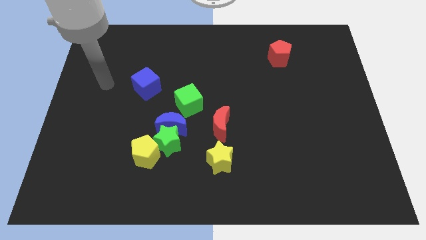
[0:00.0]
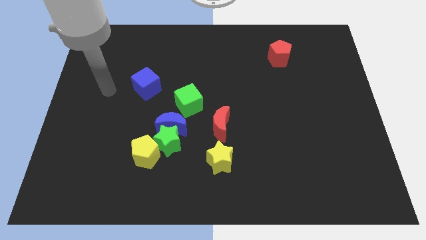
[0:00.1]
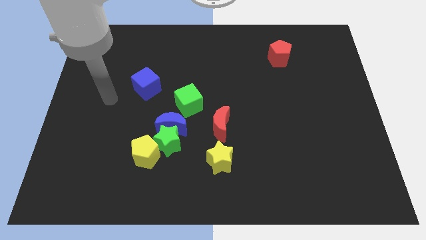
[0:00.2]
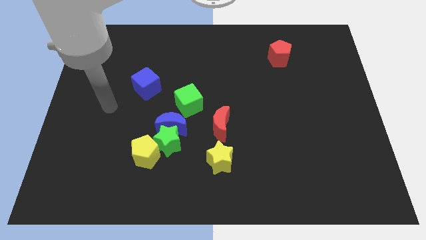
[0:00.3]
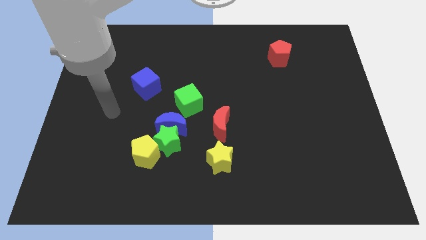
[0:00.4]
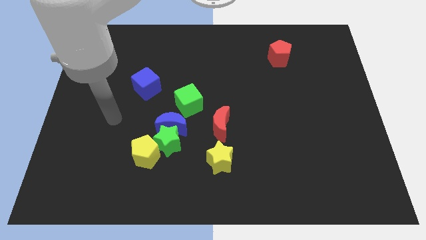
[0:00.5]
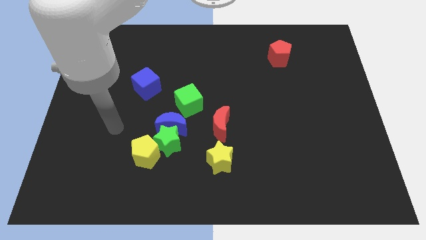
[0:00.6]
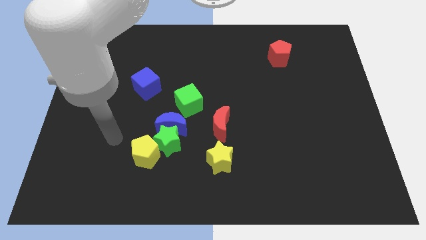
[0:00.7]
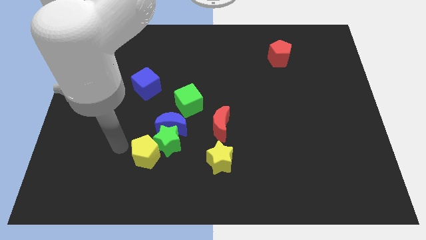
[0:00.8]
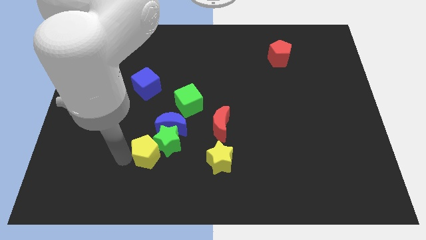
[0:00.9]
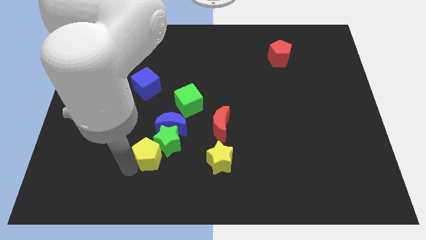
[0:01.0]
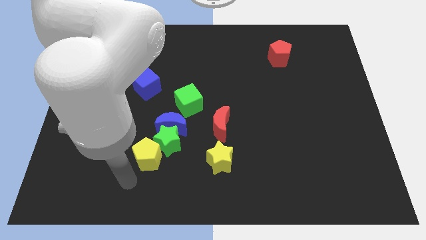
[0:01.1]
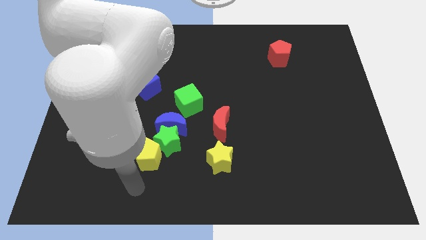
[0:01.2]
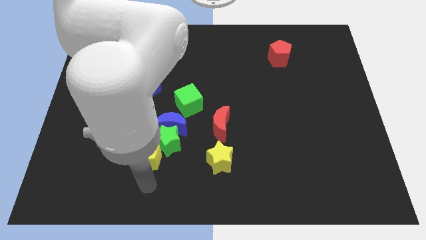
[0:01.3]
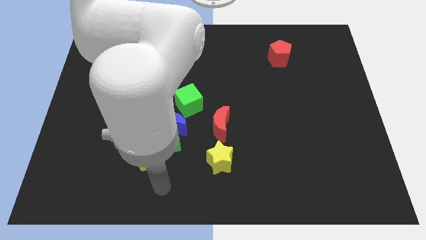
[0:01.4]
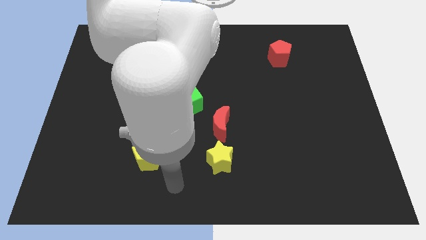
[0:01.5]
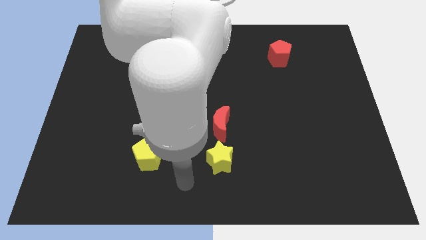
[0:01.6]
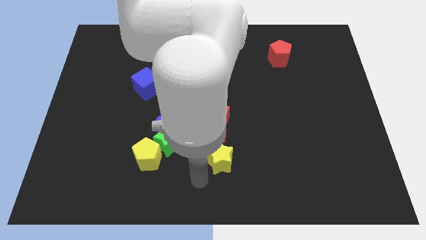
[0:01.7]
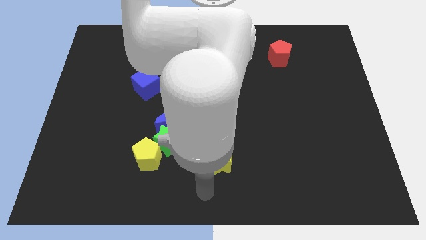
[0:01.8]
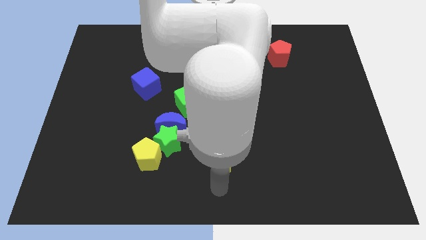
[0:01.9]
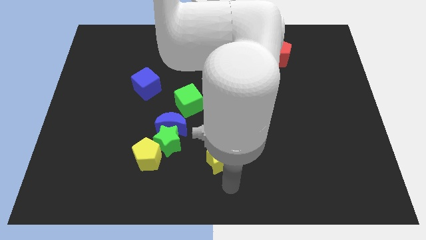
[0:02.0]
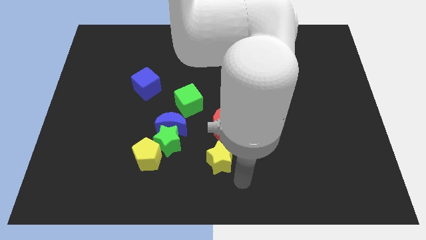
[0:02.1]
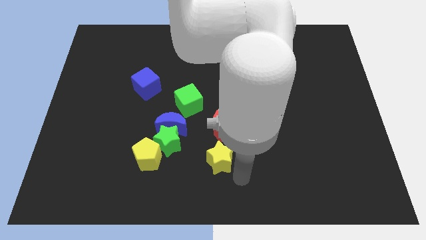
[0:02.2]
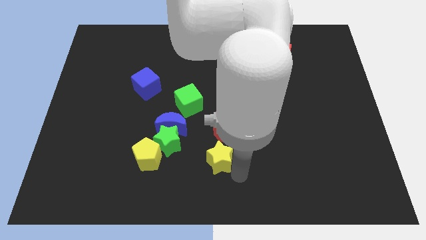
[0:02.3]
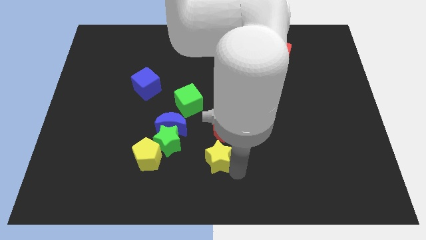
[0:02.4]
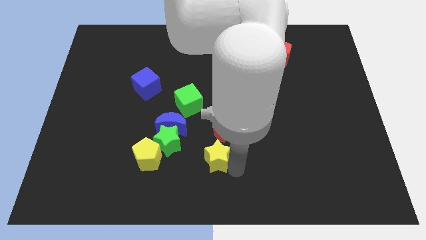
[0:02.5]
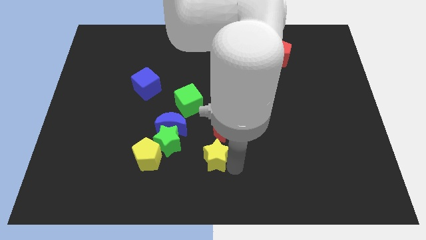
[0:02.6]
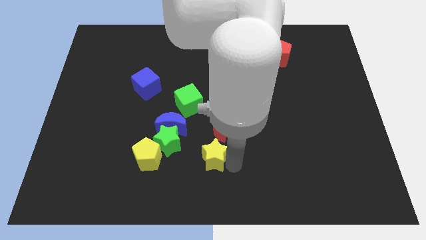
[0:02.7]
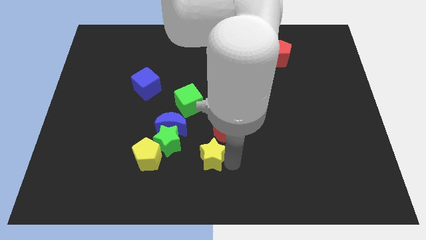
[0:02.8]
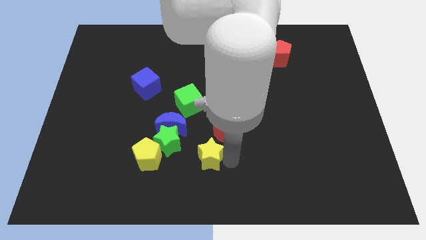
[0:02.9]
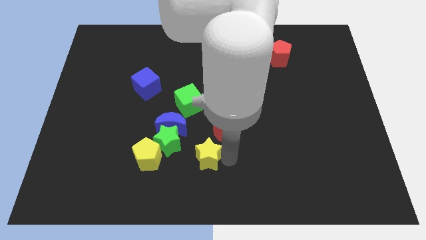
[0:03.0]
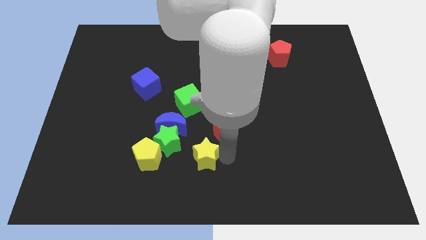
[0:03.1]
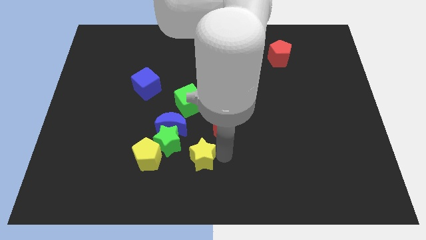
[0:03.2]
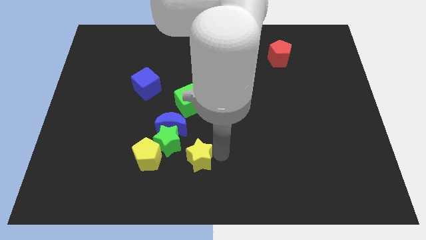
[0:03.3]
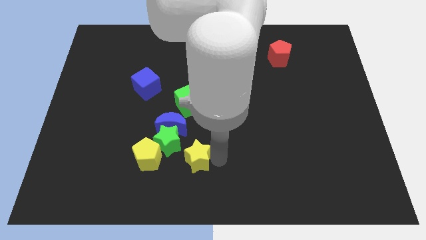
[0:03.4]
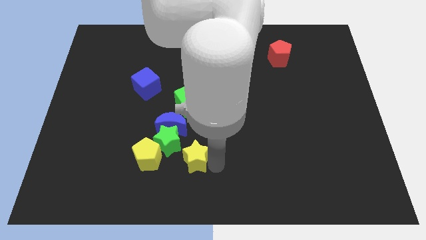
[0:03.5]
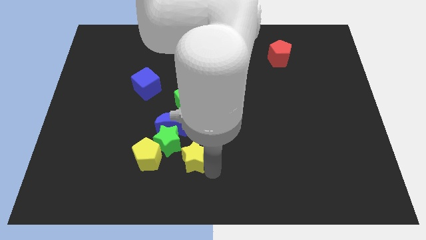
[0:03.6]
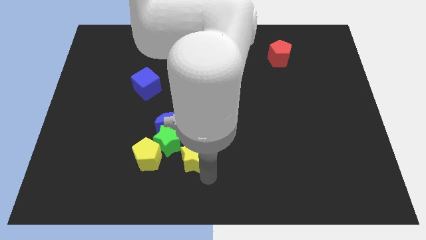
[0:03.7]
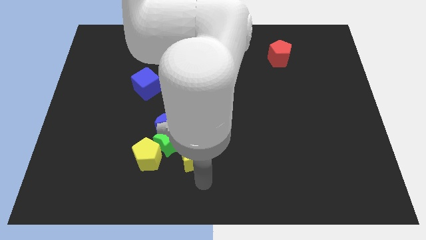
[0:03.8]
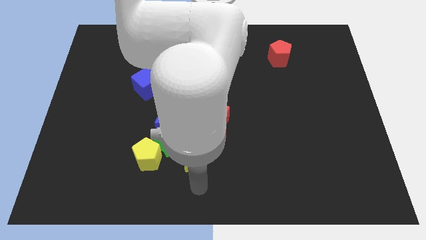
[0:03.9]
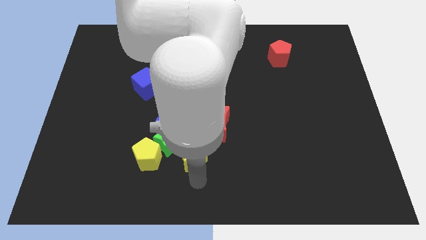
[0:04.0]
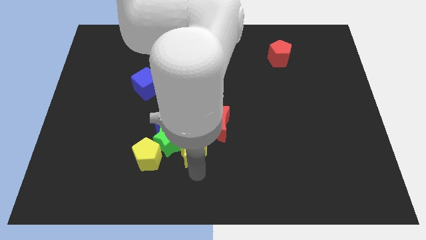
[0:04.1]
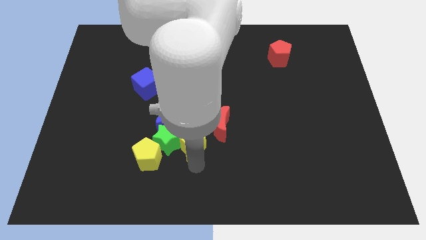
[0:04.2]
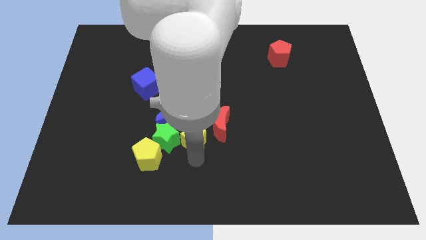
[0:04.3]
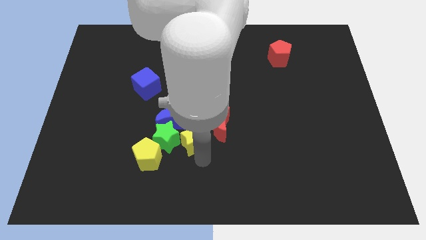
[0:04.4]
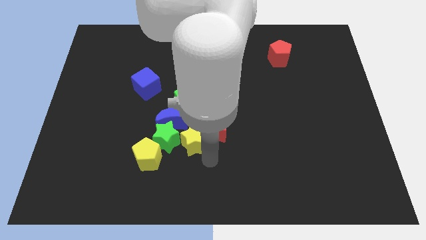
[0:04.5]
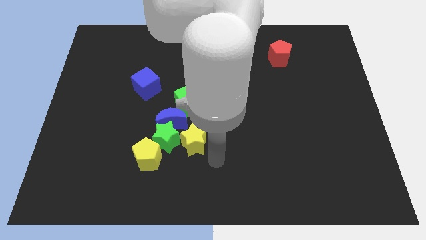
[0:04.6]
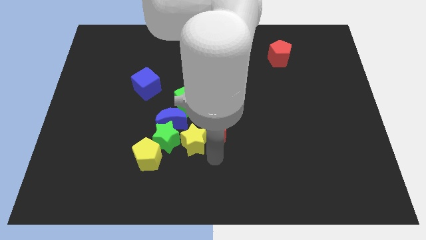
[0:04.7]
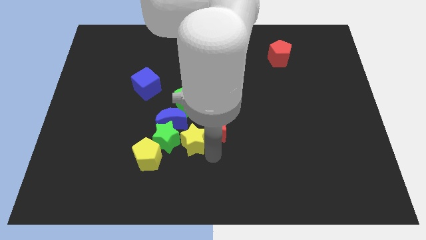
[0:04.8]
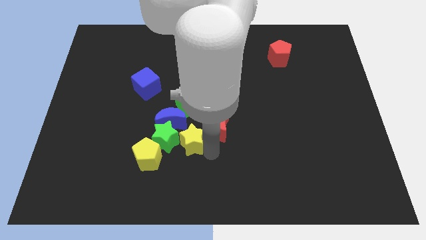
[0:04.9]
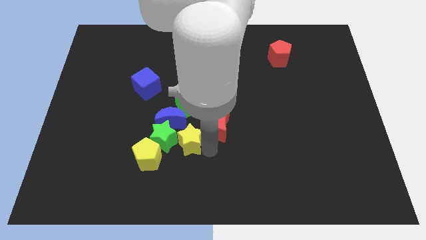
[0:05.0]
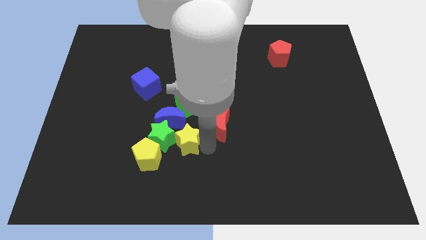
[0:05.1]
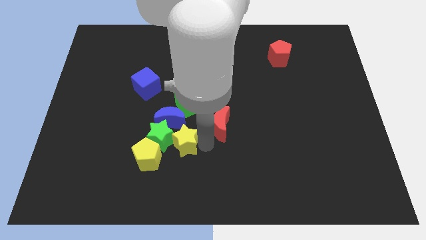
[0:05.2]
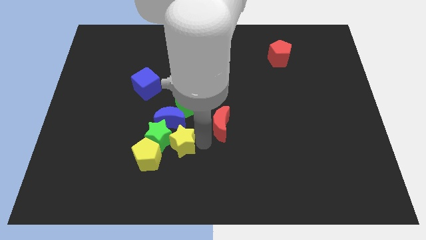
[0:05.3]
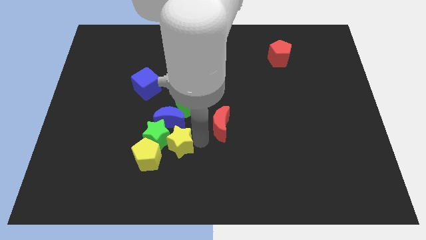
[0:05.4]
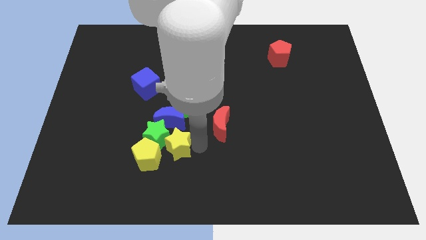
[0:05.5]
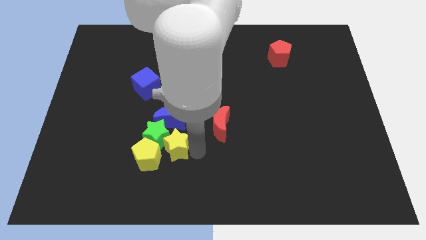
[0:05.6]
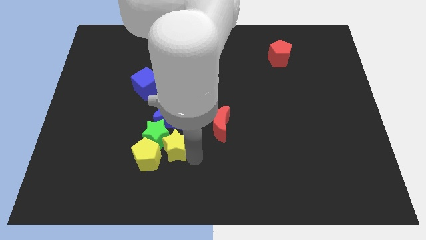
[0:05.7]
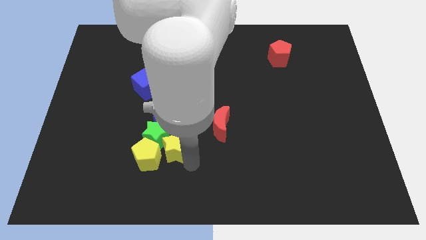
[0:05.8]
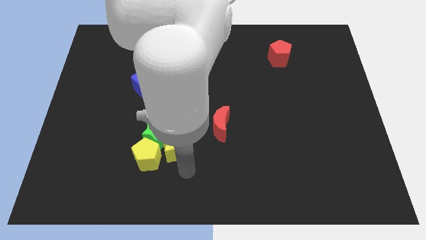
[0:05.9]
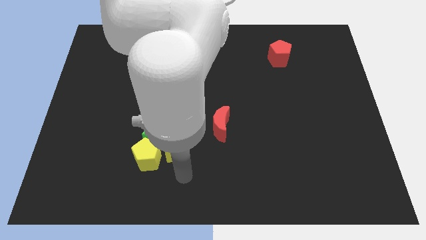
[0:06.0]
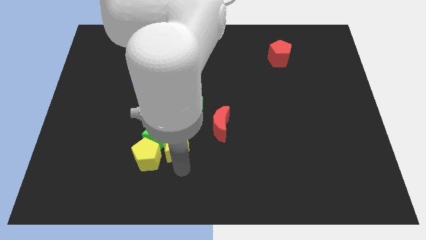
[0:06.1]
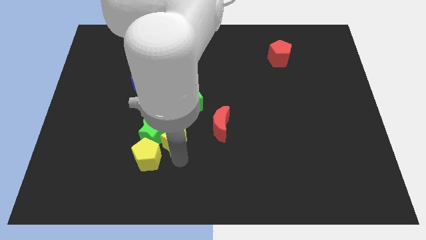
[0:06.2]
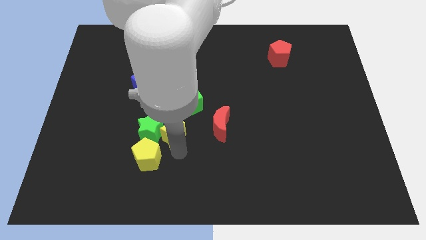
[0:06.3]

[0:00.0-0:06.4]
slide the yellow star to the blue moon

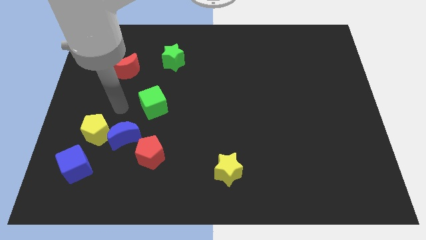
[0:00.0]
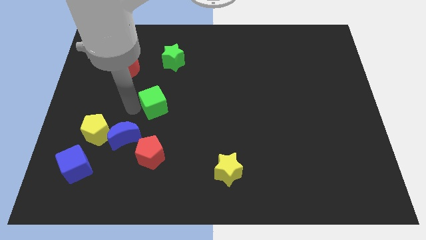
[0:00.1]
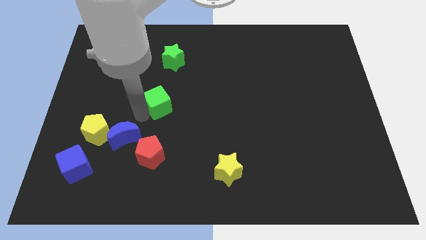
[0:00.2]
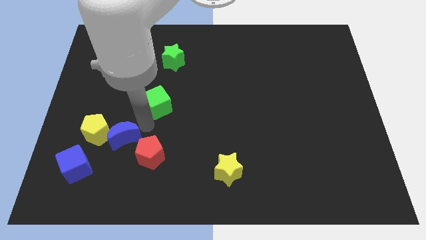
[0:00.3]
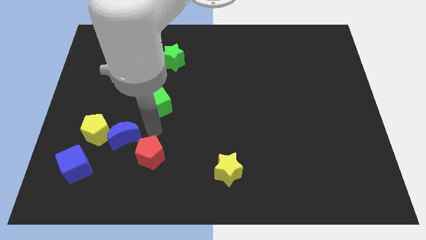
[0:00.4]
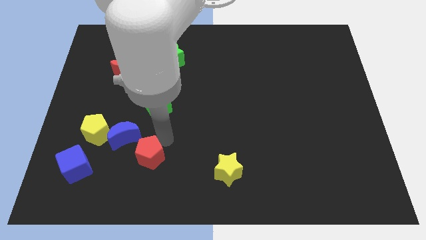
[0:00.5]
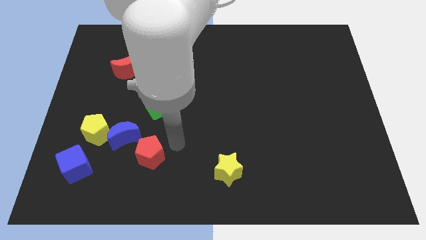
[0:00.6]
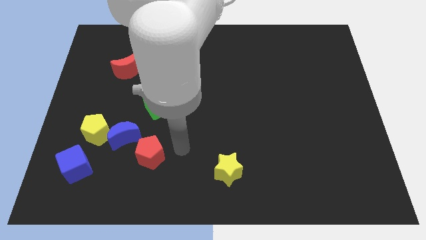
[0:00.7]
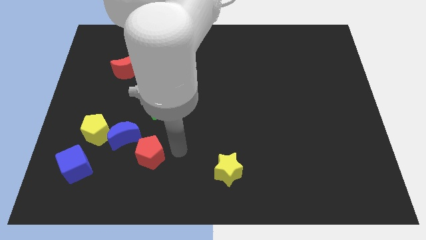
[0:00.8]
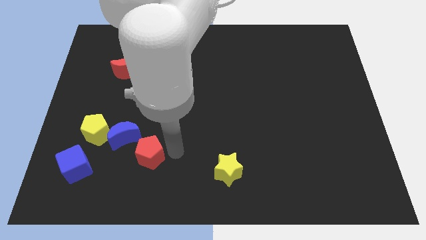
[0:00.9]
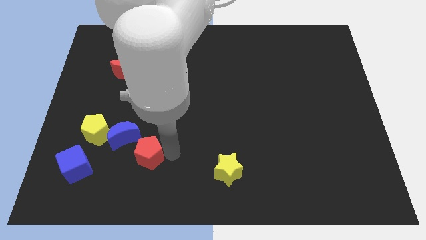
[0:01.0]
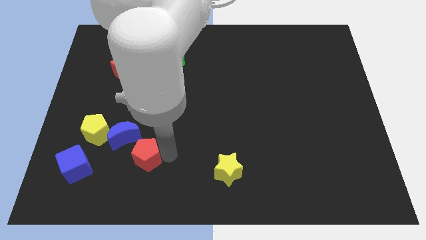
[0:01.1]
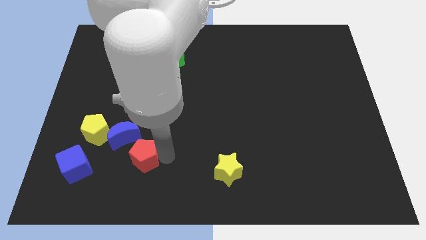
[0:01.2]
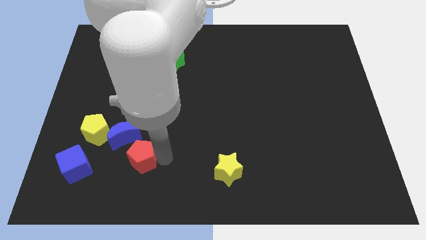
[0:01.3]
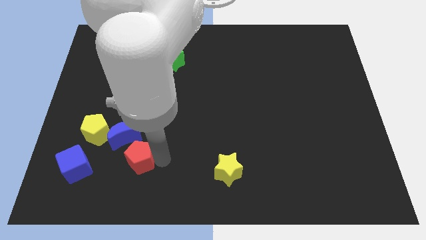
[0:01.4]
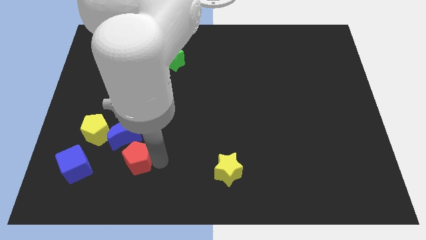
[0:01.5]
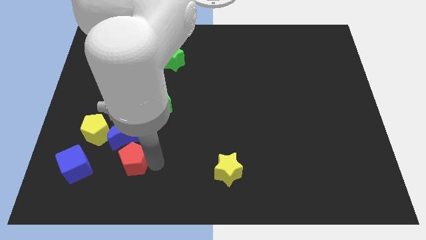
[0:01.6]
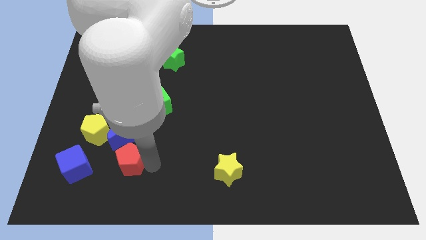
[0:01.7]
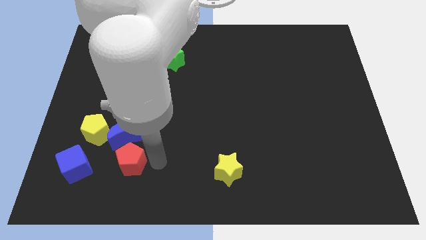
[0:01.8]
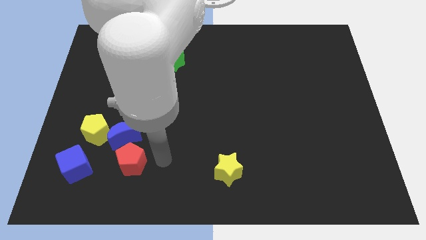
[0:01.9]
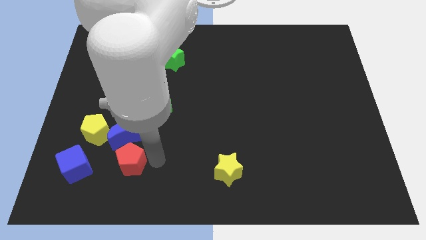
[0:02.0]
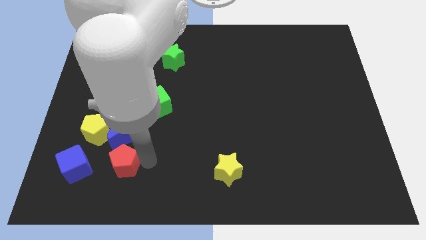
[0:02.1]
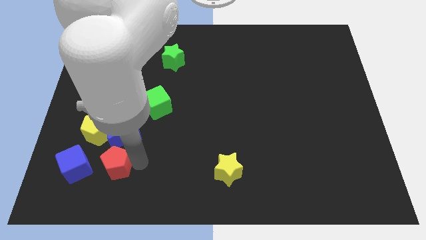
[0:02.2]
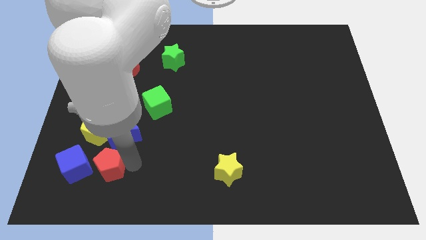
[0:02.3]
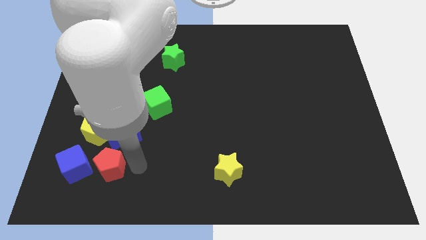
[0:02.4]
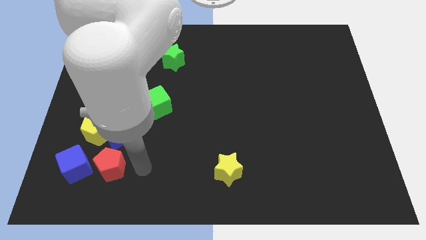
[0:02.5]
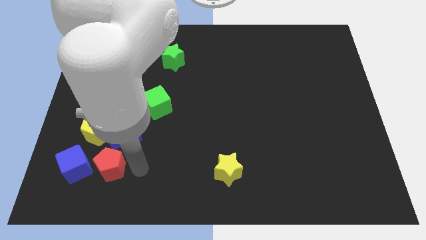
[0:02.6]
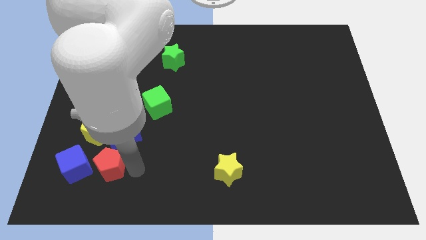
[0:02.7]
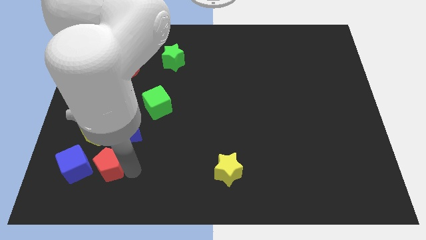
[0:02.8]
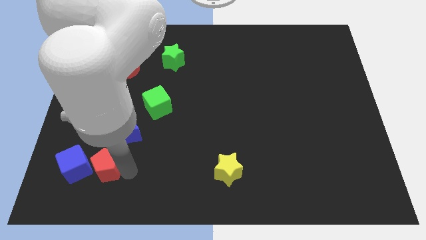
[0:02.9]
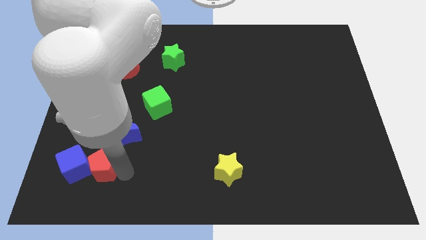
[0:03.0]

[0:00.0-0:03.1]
put the red pentagon next to the blue cube
